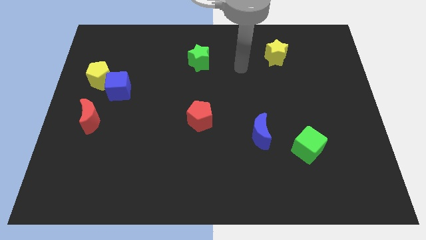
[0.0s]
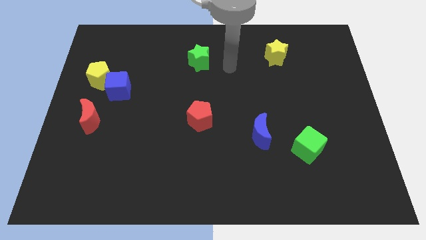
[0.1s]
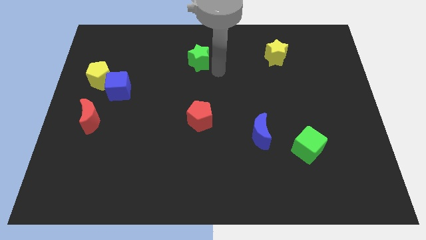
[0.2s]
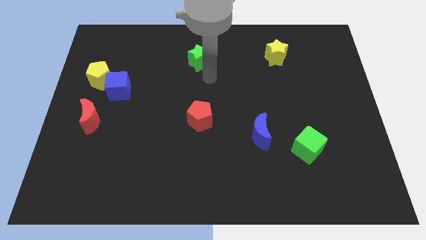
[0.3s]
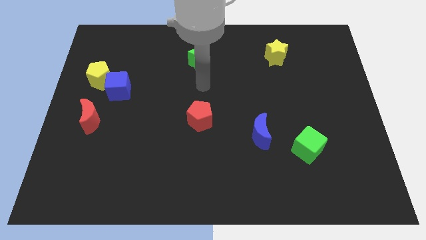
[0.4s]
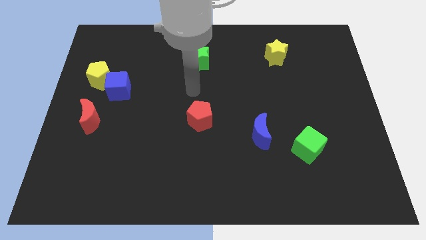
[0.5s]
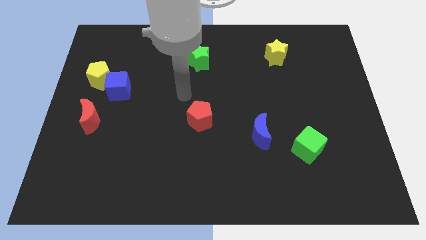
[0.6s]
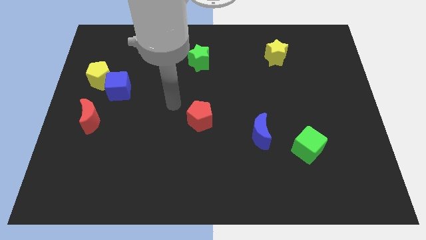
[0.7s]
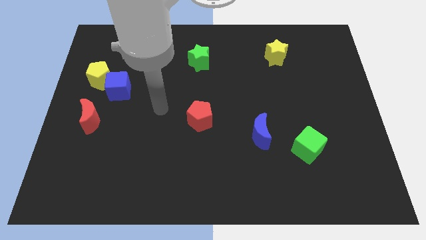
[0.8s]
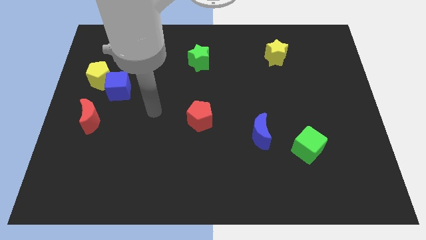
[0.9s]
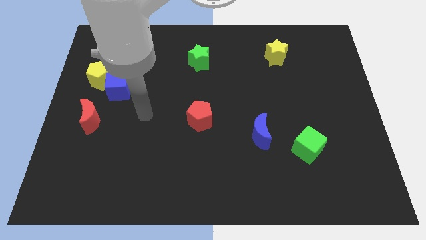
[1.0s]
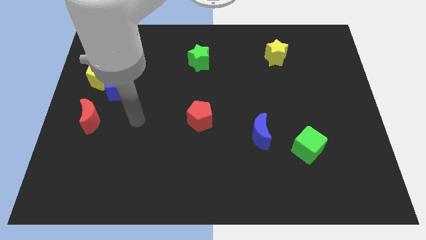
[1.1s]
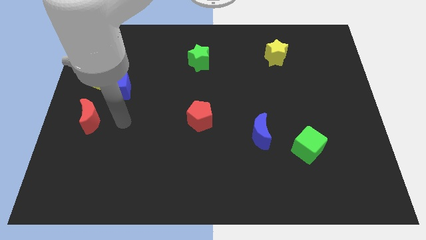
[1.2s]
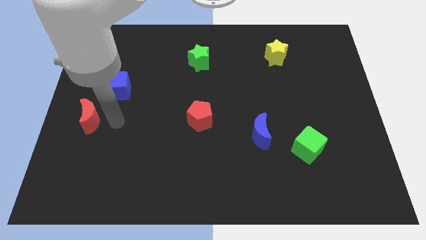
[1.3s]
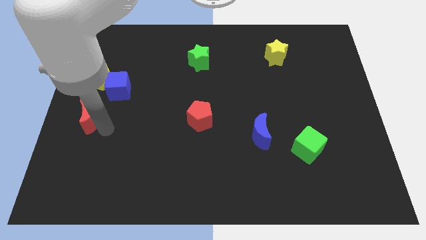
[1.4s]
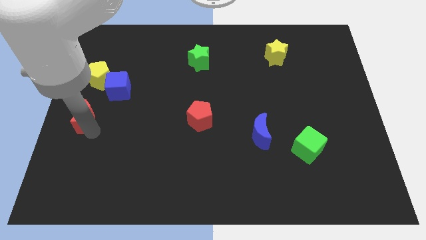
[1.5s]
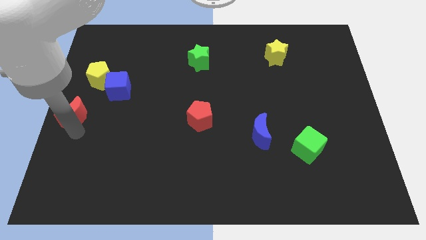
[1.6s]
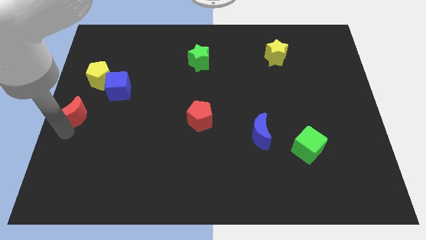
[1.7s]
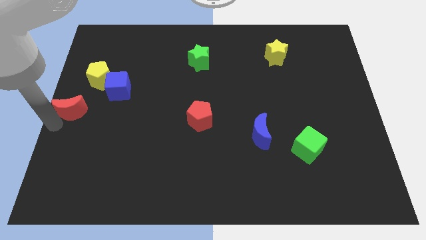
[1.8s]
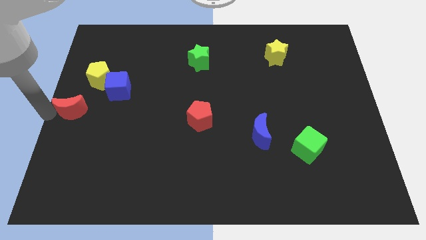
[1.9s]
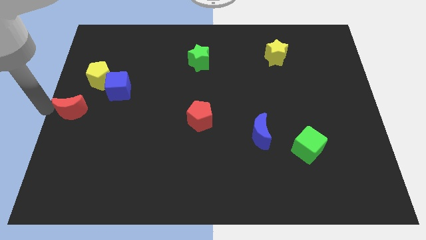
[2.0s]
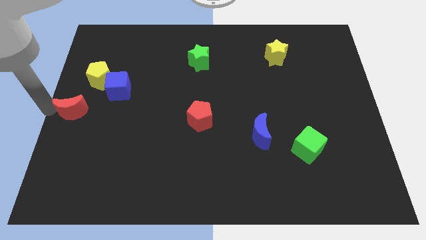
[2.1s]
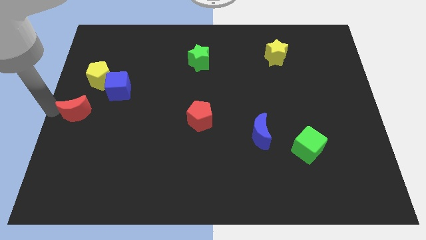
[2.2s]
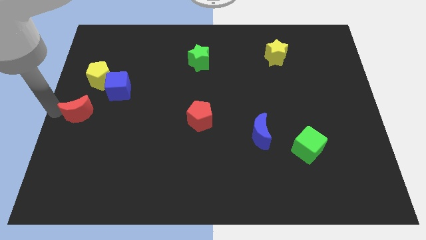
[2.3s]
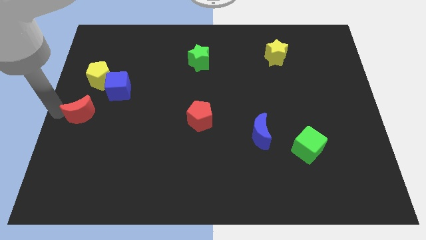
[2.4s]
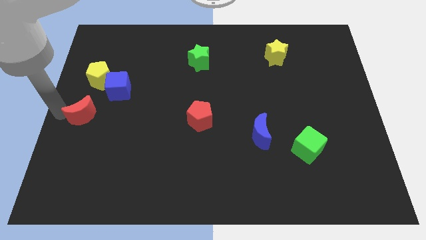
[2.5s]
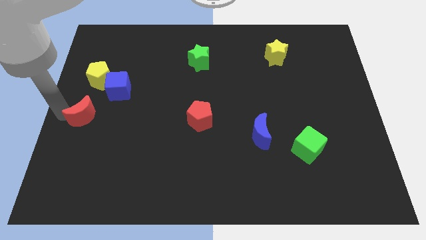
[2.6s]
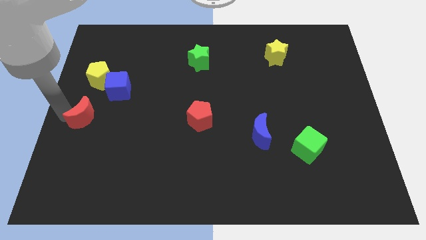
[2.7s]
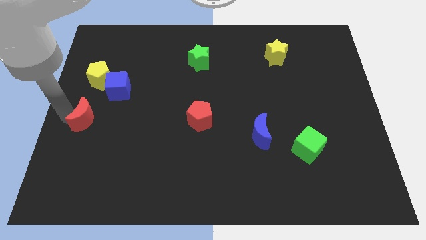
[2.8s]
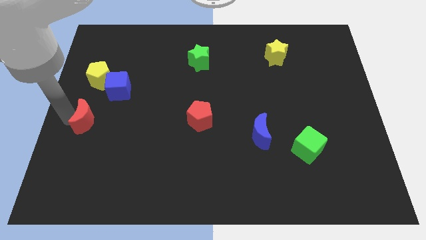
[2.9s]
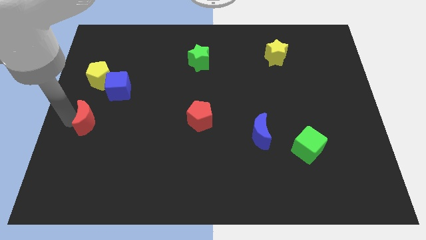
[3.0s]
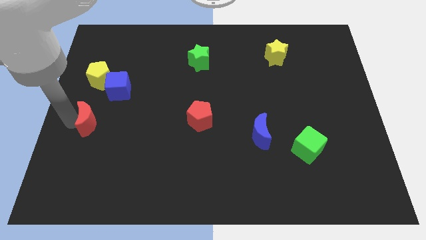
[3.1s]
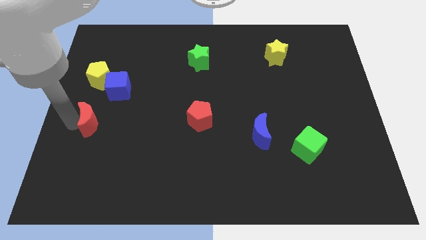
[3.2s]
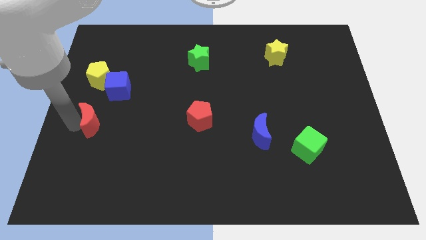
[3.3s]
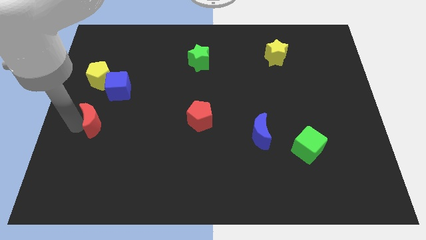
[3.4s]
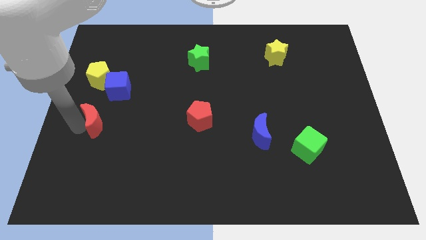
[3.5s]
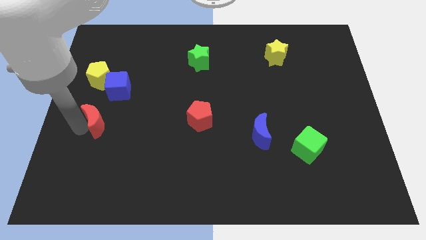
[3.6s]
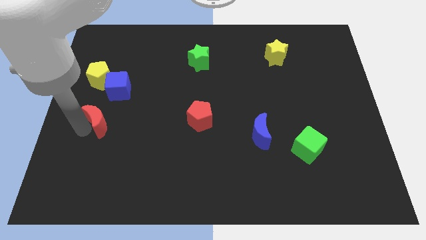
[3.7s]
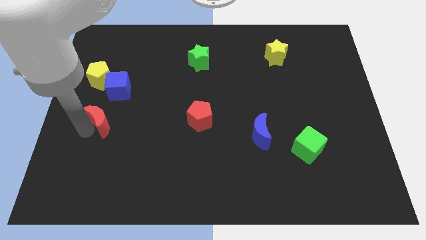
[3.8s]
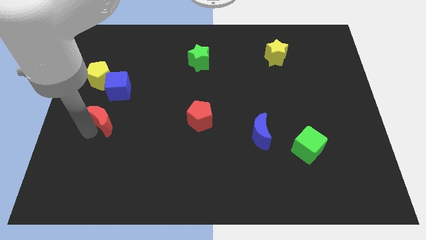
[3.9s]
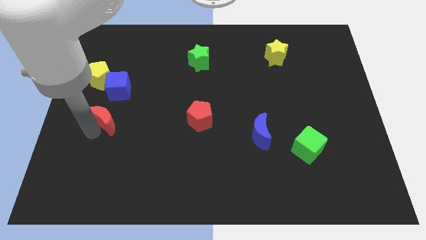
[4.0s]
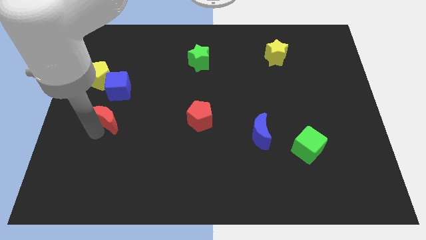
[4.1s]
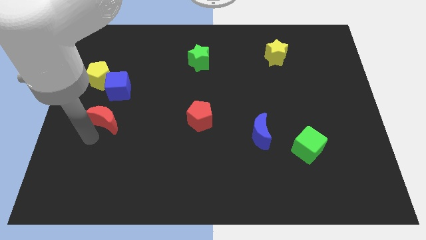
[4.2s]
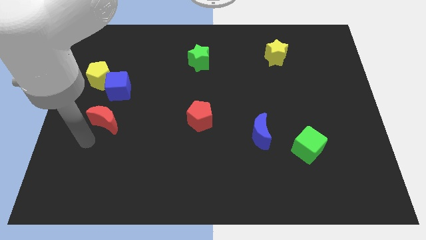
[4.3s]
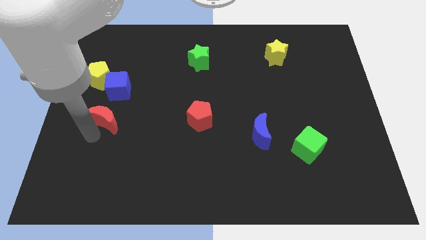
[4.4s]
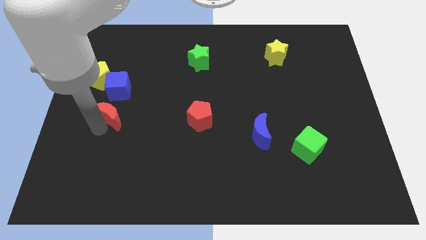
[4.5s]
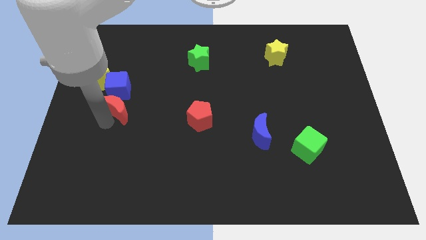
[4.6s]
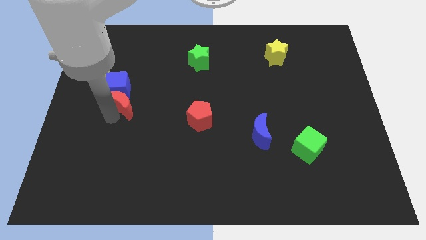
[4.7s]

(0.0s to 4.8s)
move the red moon slightly up and right

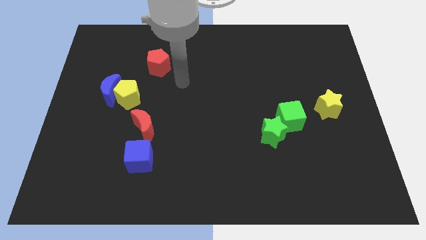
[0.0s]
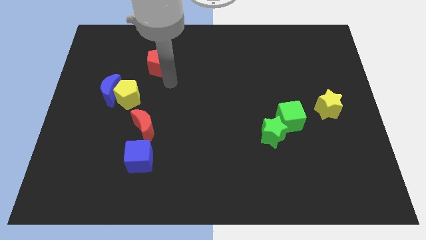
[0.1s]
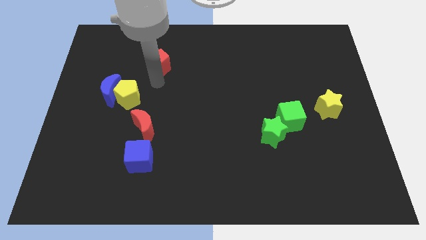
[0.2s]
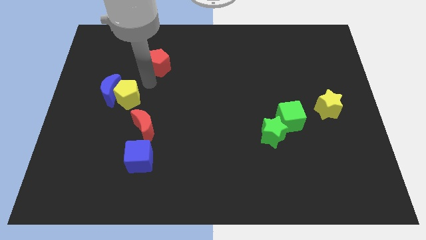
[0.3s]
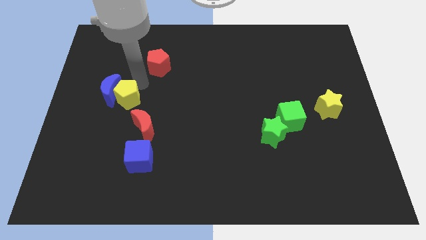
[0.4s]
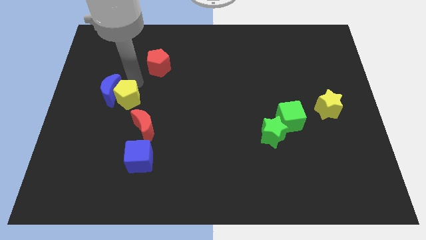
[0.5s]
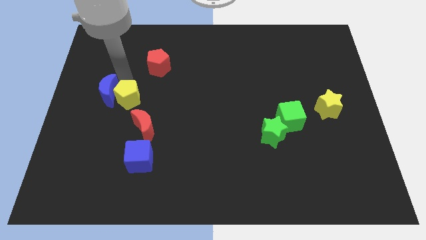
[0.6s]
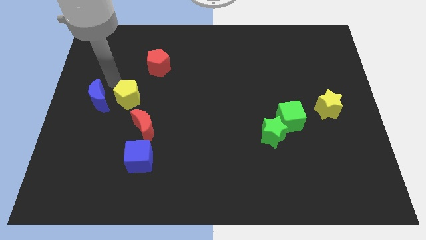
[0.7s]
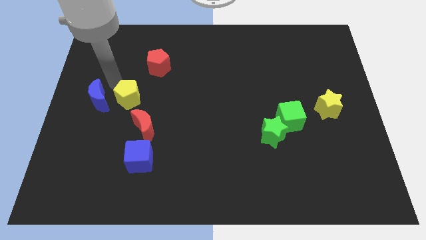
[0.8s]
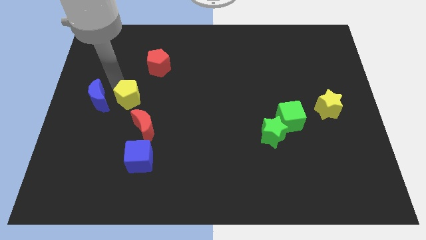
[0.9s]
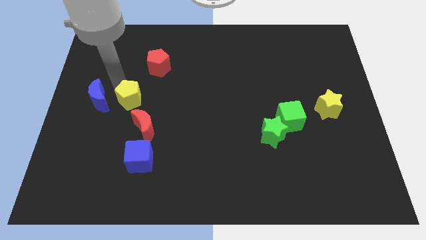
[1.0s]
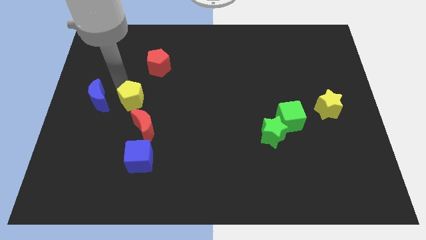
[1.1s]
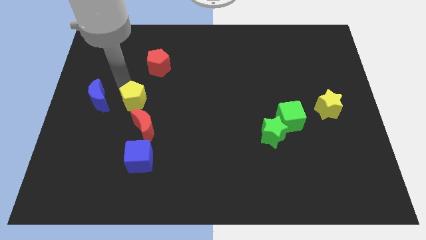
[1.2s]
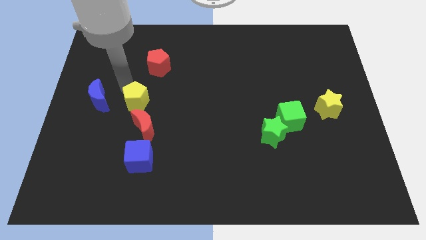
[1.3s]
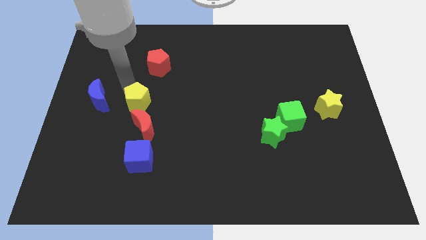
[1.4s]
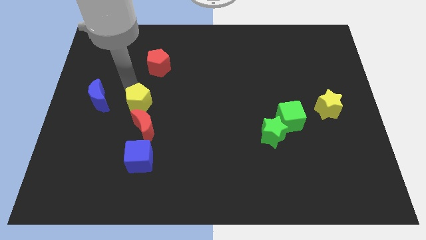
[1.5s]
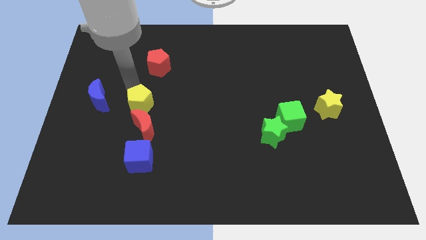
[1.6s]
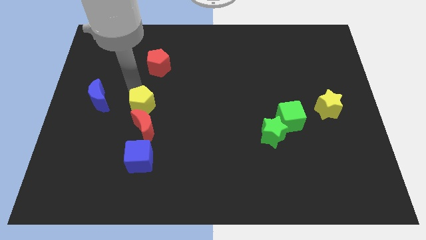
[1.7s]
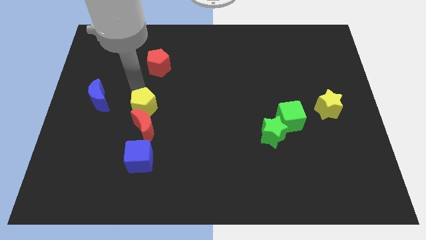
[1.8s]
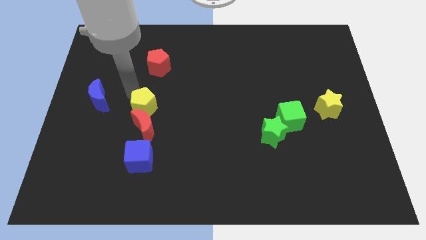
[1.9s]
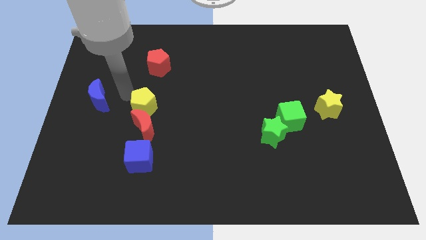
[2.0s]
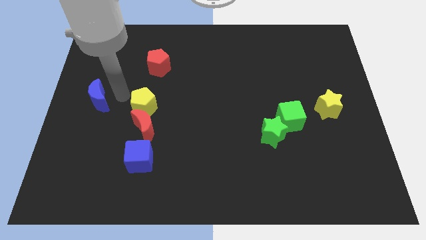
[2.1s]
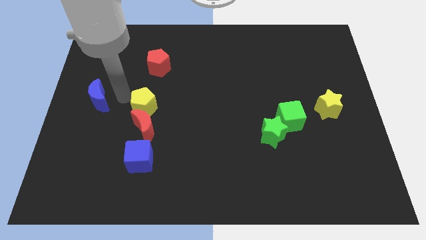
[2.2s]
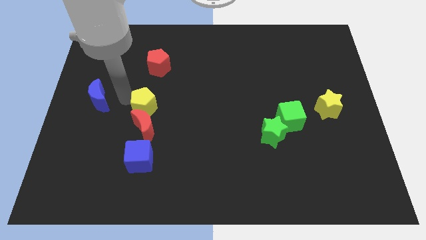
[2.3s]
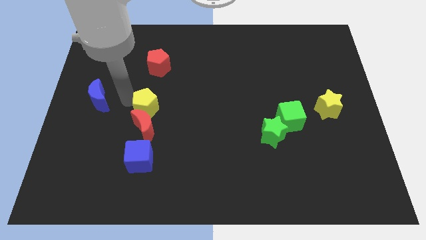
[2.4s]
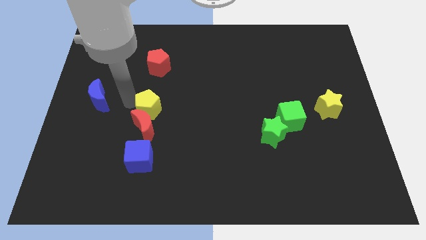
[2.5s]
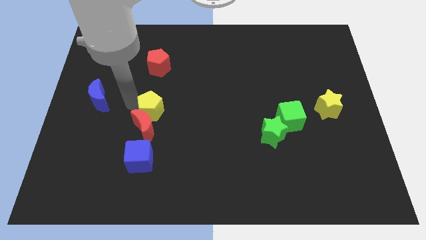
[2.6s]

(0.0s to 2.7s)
slightly push the yellow pentagon downwards and to the right

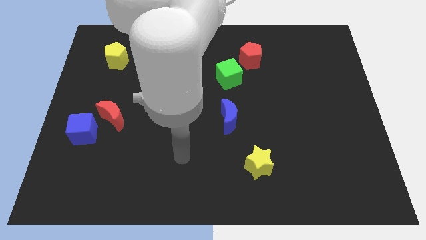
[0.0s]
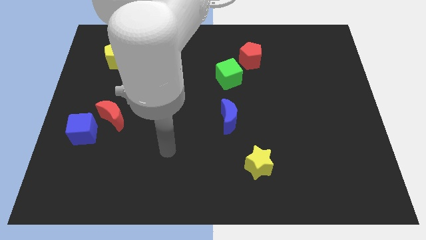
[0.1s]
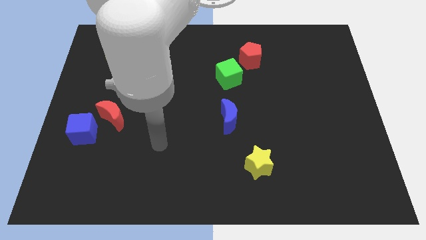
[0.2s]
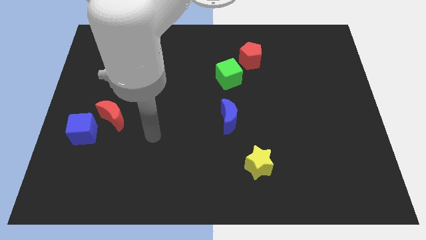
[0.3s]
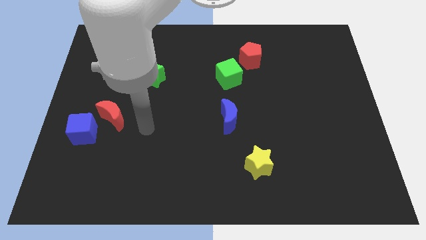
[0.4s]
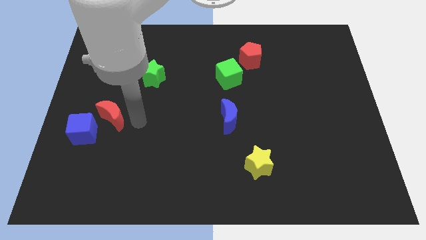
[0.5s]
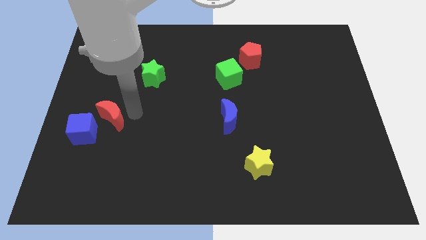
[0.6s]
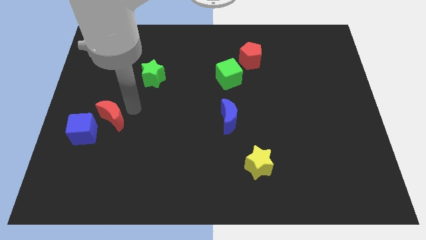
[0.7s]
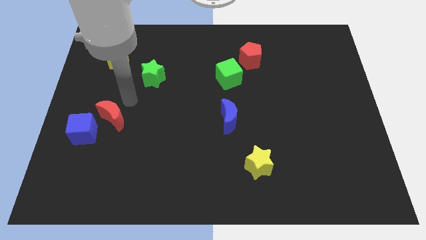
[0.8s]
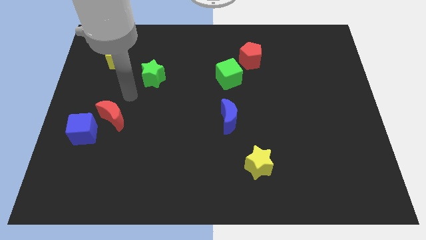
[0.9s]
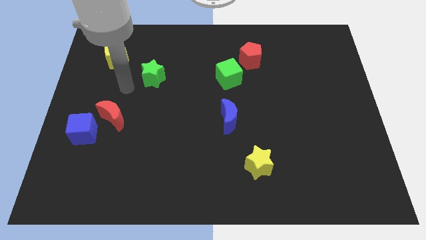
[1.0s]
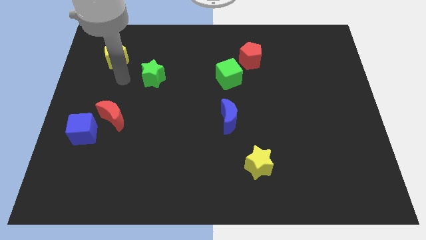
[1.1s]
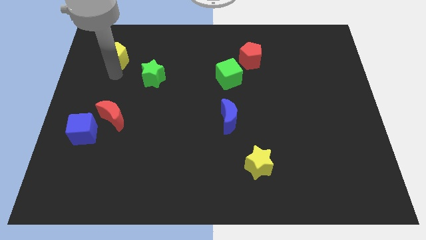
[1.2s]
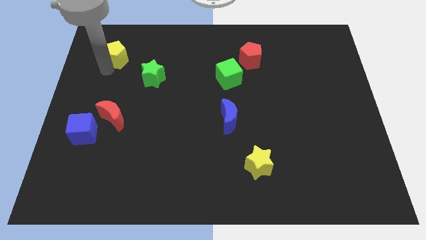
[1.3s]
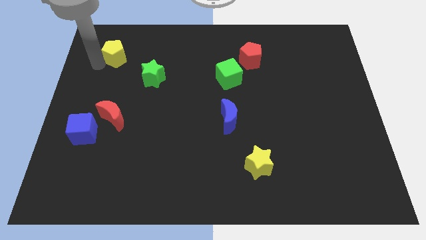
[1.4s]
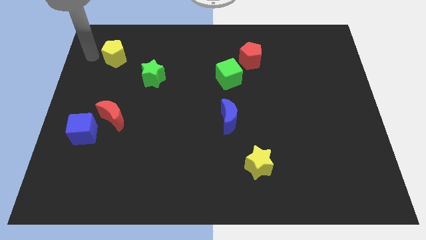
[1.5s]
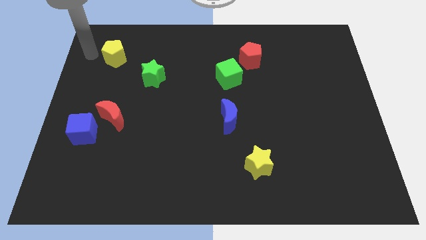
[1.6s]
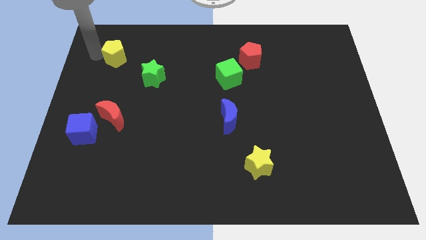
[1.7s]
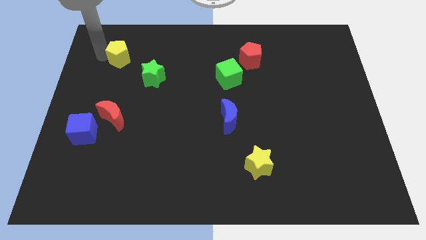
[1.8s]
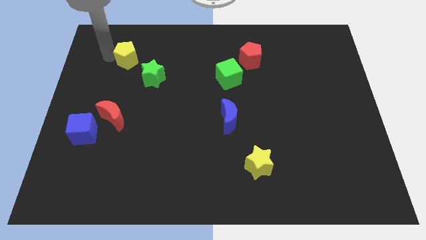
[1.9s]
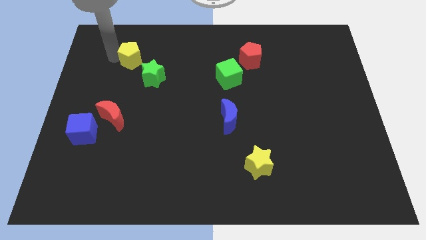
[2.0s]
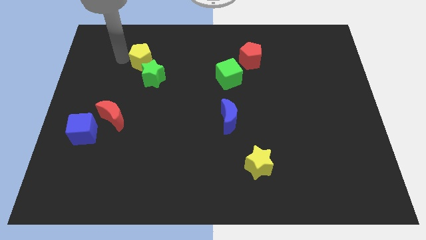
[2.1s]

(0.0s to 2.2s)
push the yellow pentagon a bit right
